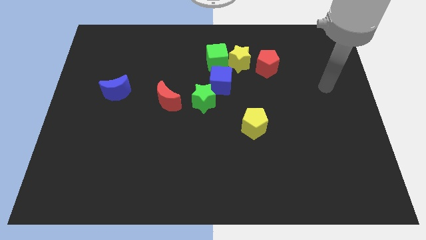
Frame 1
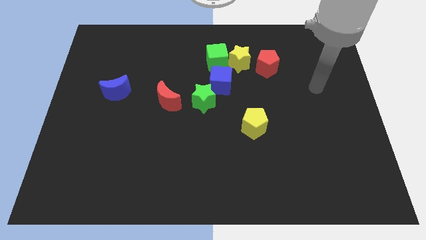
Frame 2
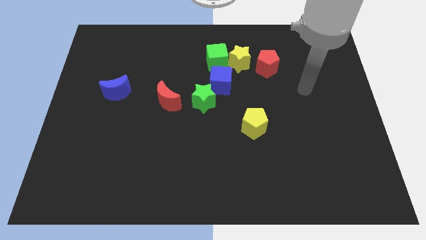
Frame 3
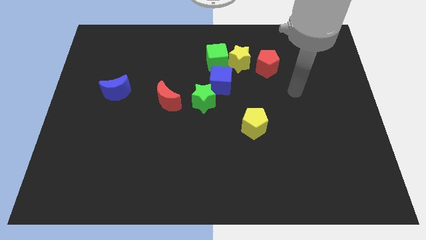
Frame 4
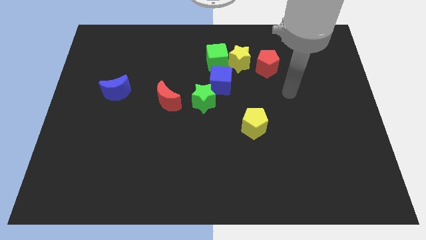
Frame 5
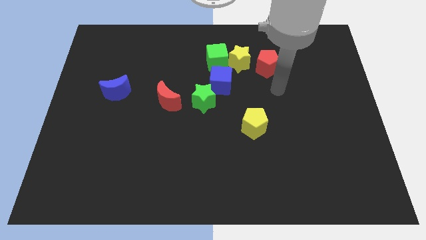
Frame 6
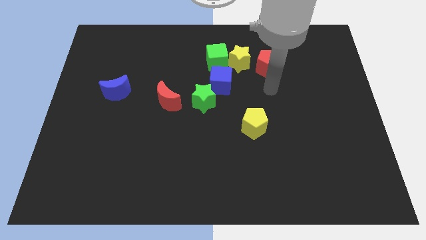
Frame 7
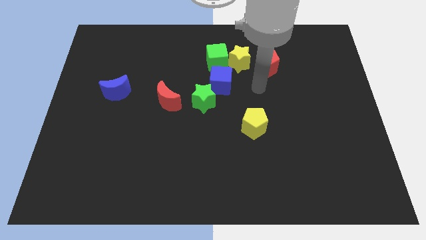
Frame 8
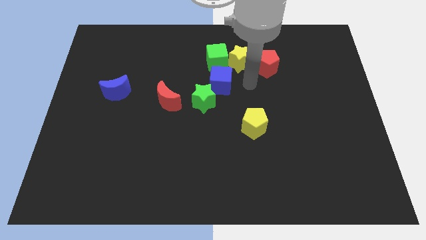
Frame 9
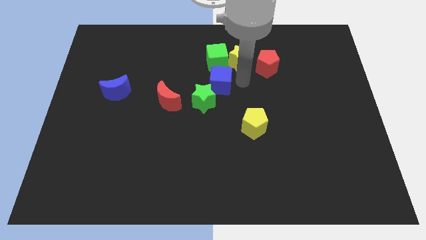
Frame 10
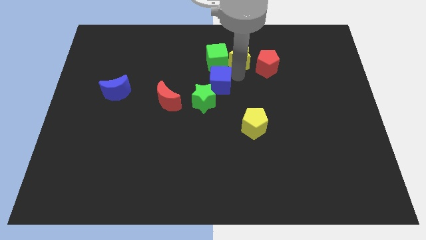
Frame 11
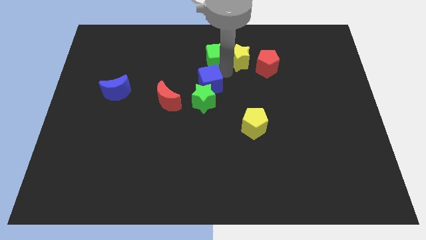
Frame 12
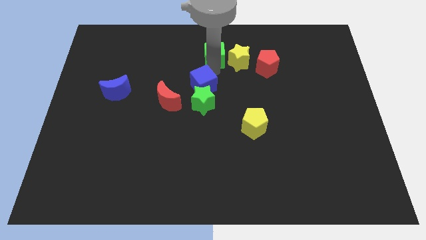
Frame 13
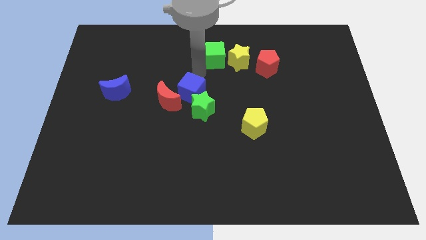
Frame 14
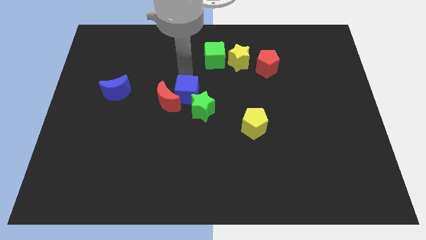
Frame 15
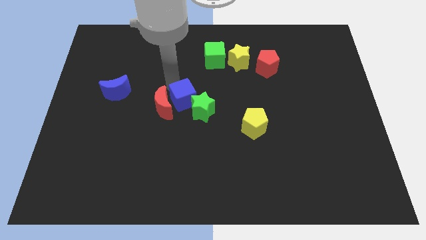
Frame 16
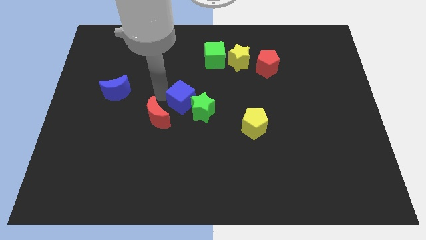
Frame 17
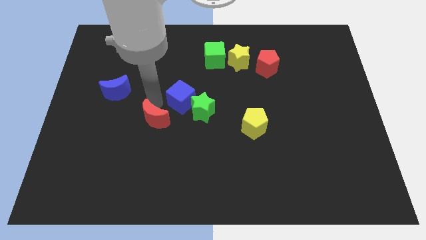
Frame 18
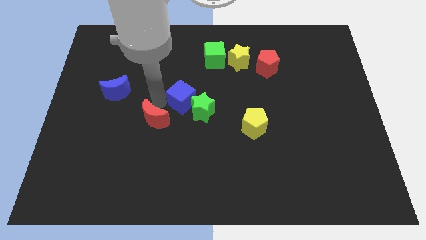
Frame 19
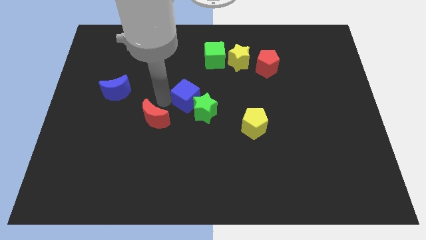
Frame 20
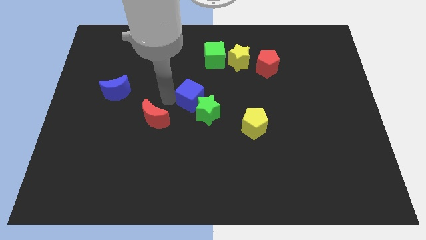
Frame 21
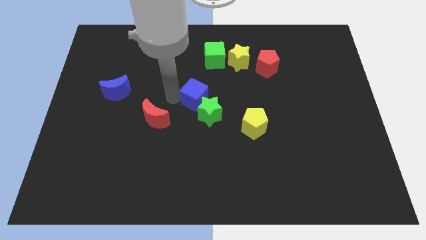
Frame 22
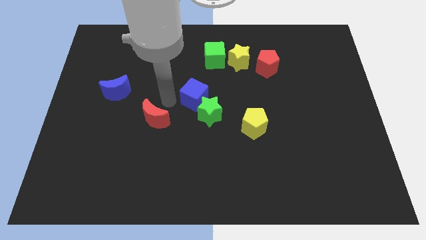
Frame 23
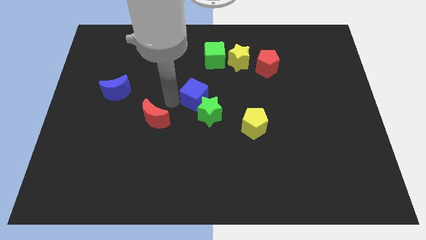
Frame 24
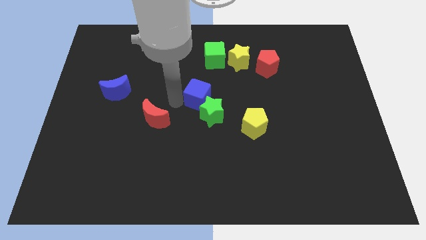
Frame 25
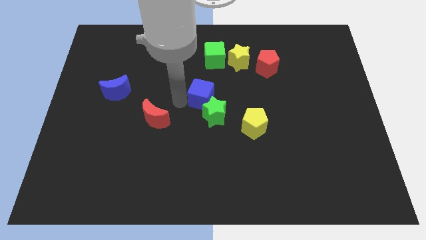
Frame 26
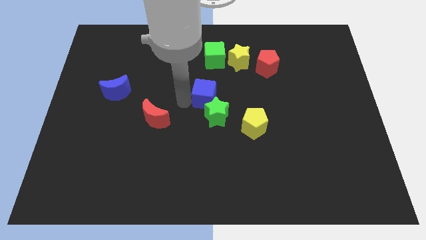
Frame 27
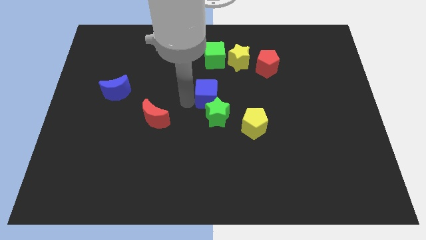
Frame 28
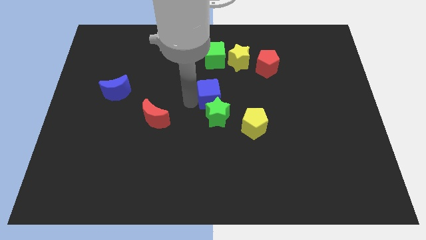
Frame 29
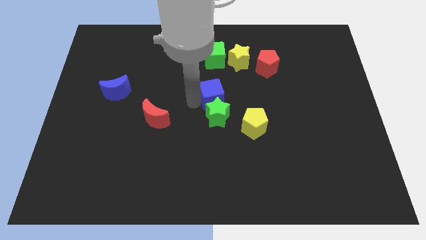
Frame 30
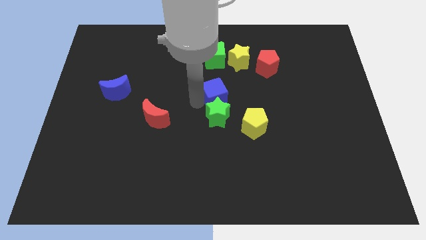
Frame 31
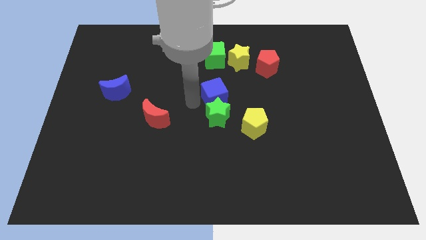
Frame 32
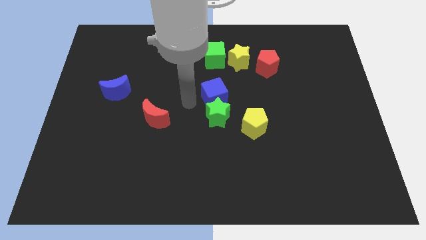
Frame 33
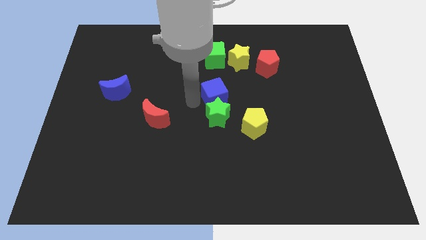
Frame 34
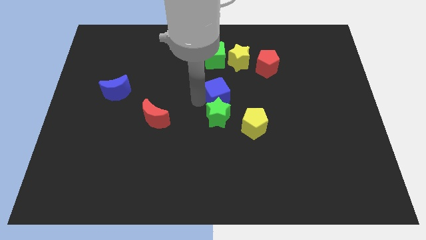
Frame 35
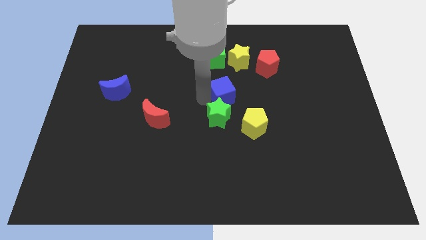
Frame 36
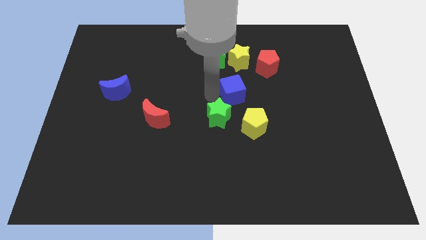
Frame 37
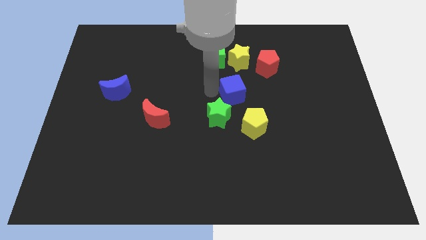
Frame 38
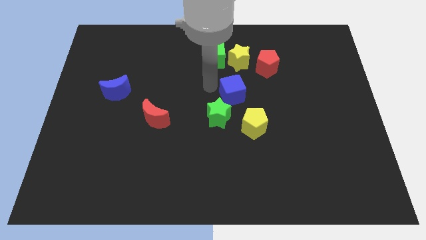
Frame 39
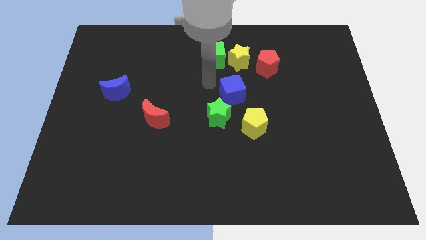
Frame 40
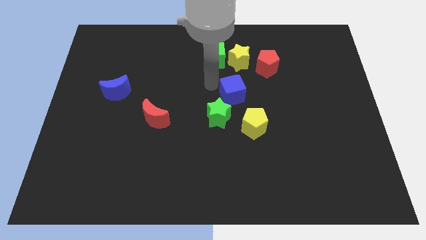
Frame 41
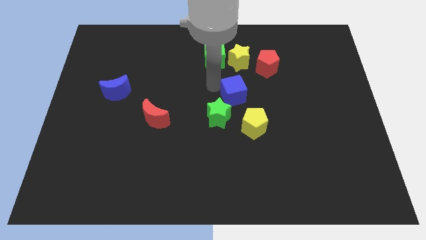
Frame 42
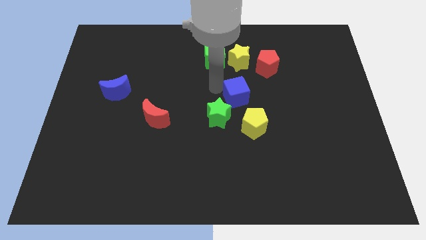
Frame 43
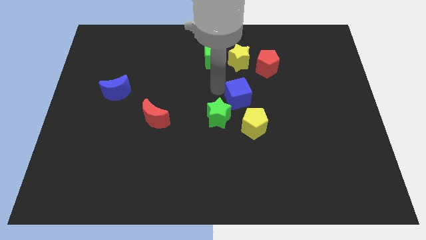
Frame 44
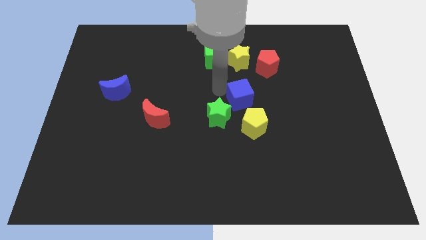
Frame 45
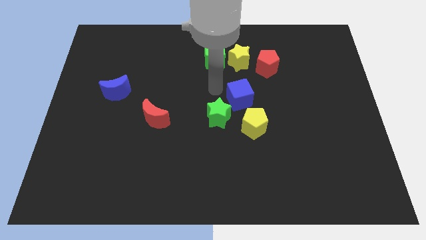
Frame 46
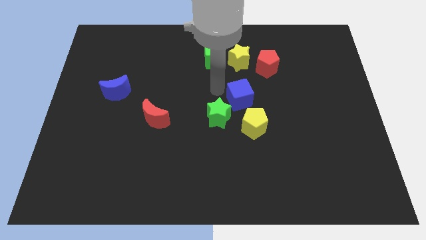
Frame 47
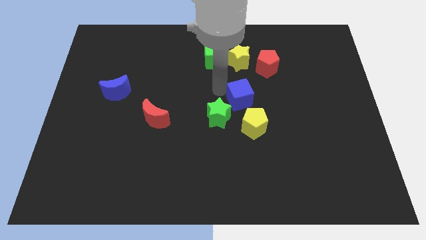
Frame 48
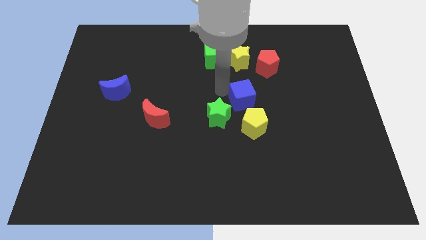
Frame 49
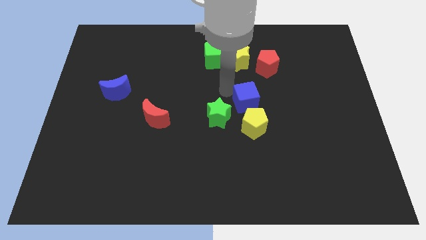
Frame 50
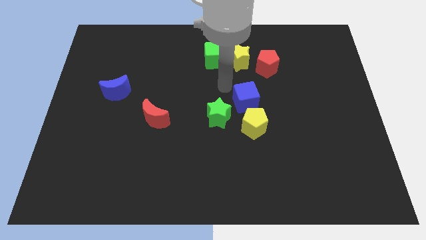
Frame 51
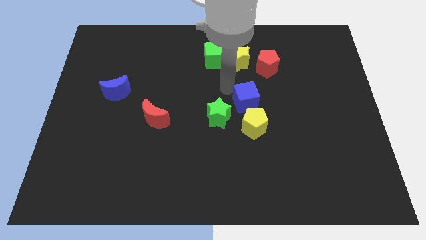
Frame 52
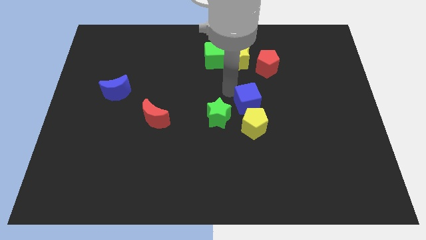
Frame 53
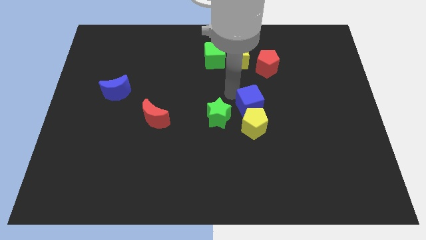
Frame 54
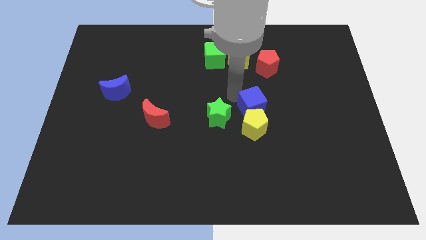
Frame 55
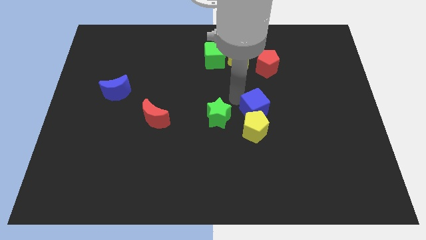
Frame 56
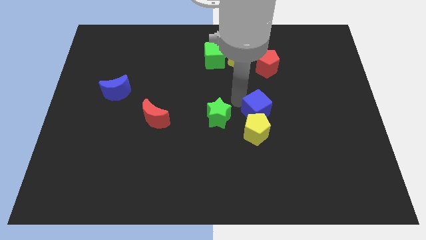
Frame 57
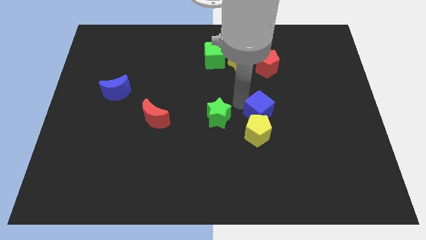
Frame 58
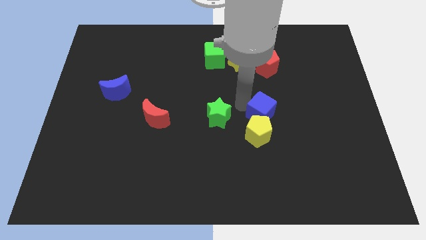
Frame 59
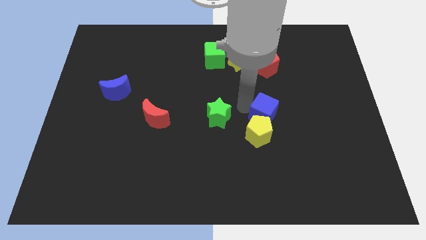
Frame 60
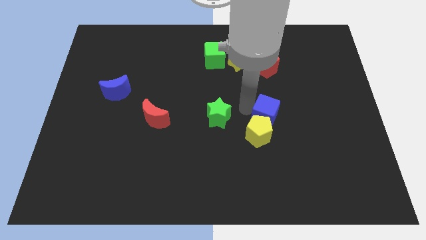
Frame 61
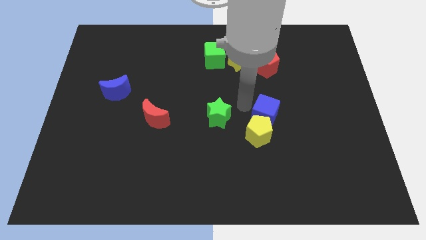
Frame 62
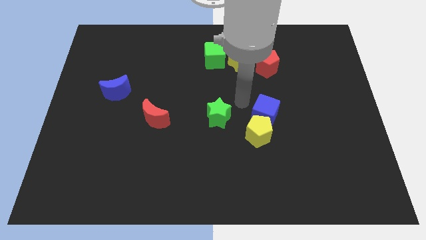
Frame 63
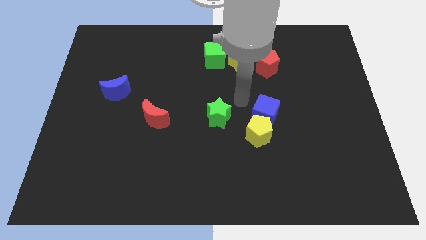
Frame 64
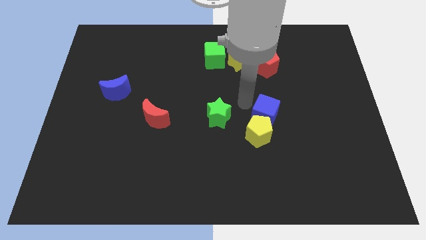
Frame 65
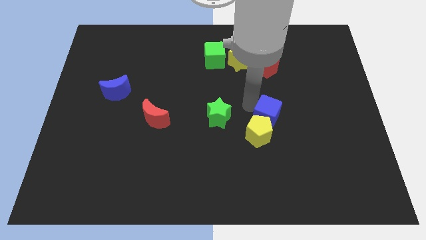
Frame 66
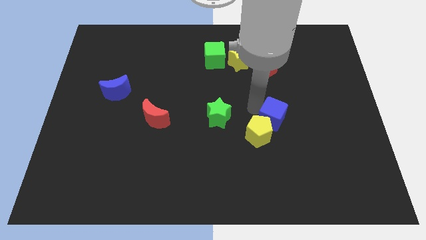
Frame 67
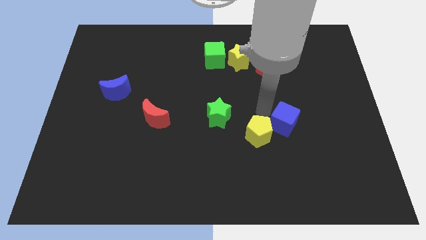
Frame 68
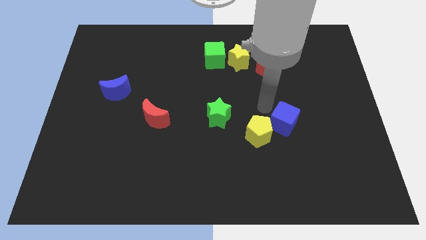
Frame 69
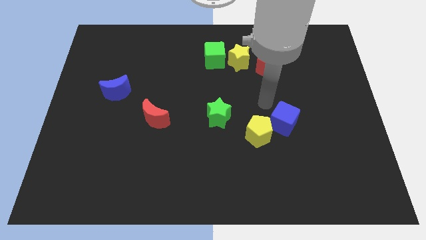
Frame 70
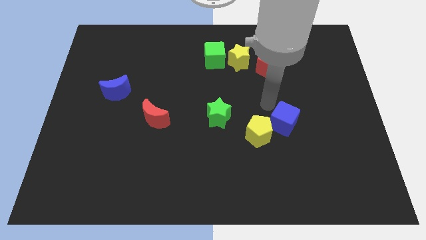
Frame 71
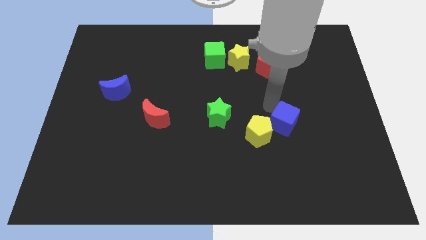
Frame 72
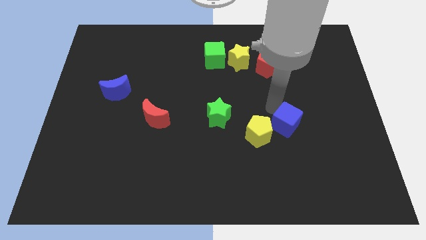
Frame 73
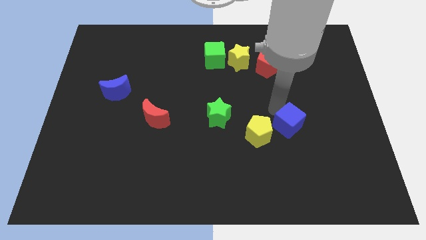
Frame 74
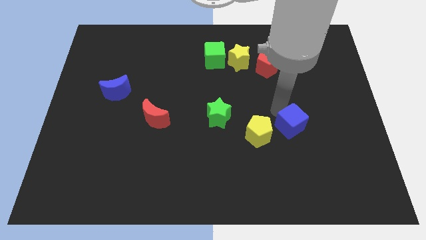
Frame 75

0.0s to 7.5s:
slide the blue cube down and right

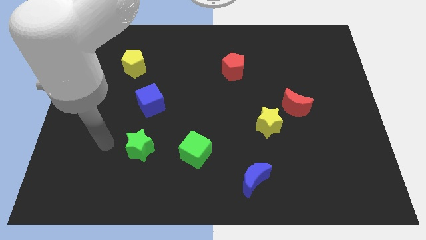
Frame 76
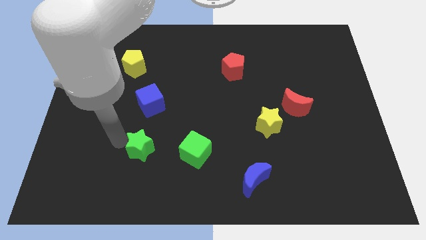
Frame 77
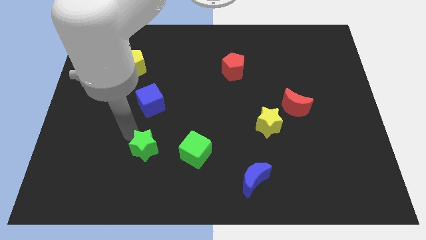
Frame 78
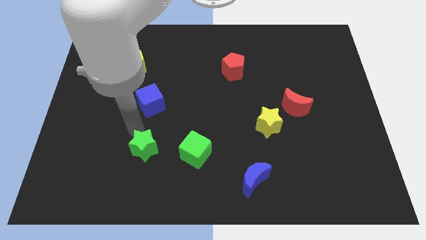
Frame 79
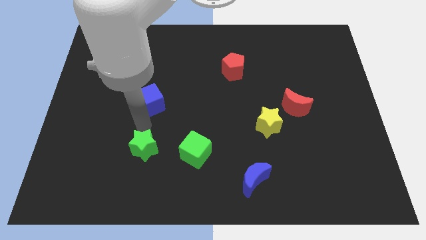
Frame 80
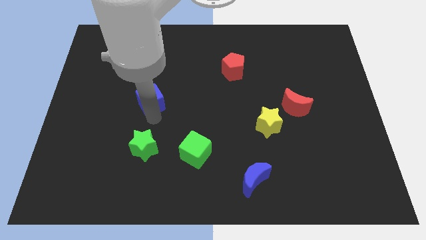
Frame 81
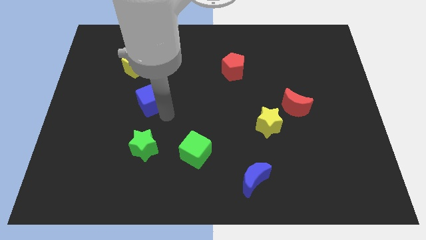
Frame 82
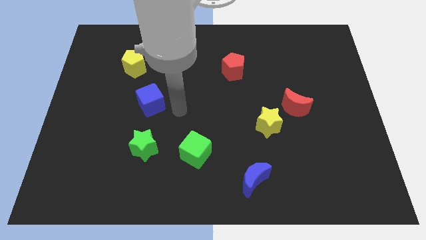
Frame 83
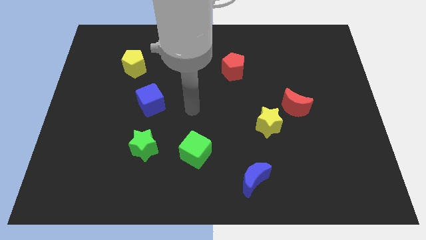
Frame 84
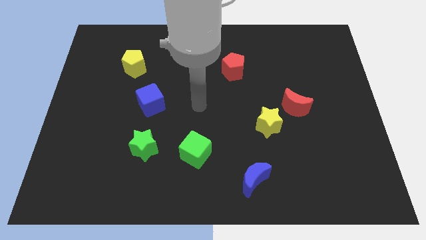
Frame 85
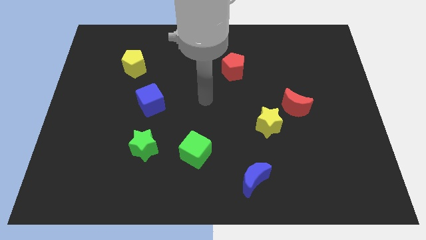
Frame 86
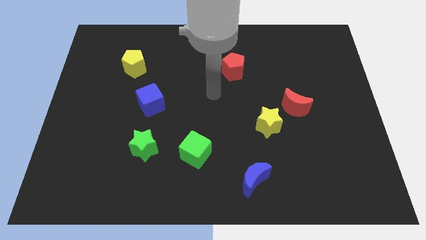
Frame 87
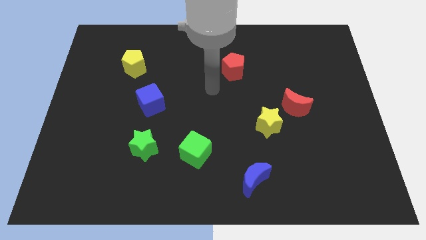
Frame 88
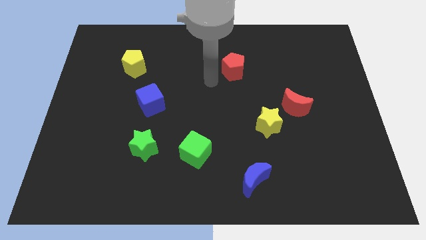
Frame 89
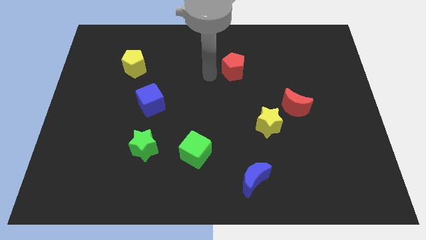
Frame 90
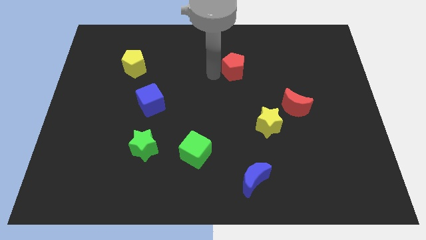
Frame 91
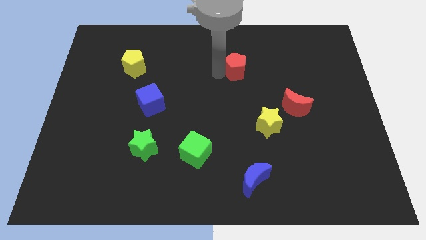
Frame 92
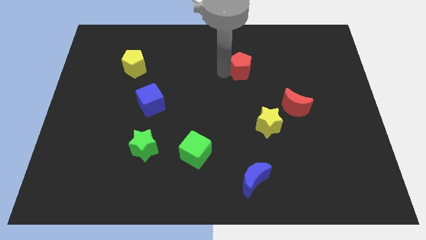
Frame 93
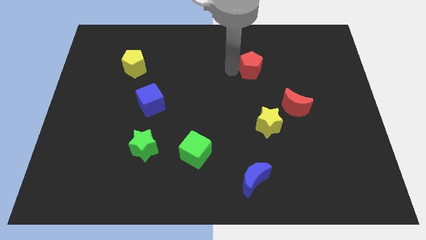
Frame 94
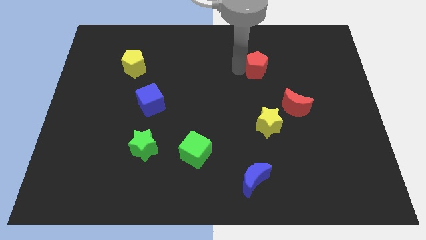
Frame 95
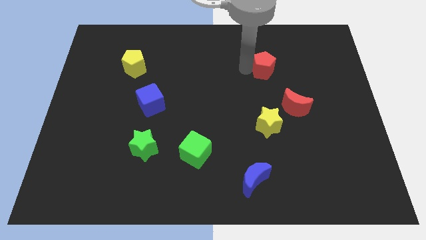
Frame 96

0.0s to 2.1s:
push the red pentagon somewhat to the right
